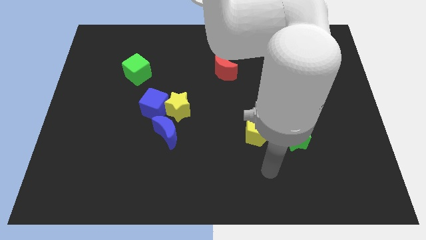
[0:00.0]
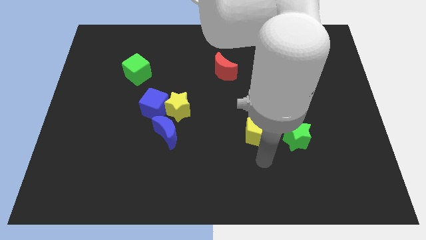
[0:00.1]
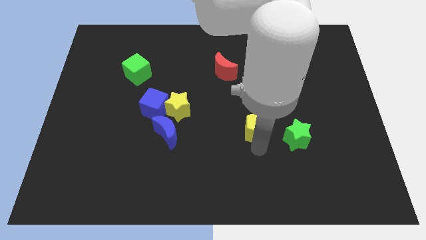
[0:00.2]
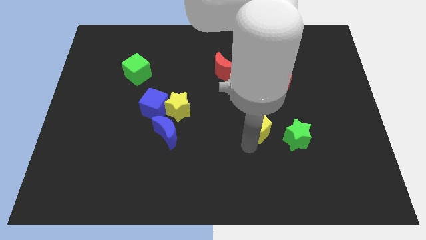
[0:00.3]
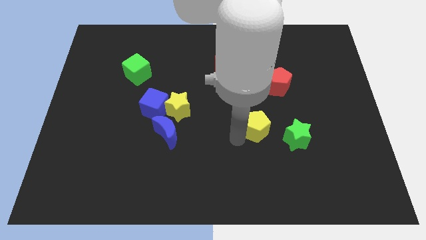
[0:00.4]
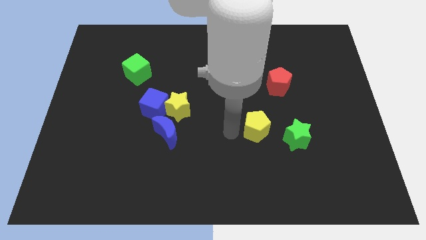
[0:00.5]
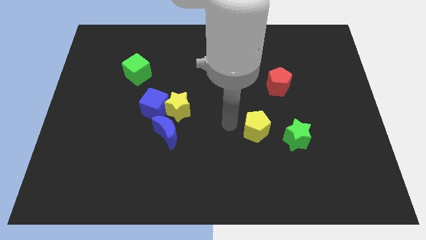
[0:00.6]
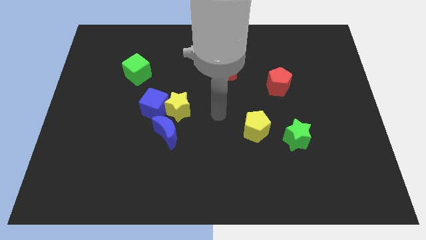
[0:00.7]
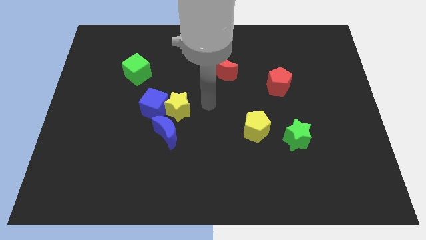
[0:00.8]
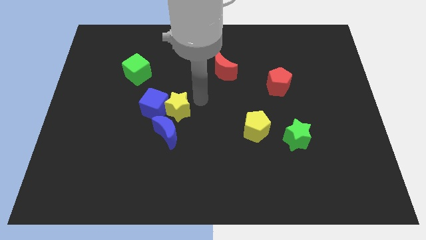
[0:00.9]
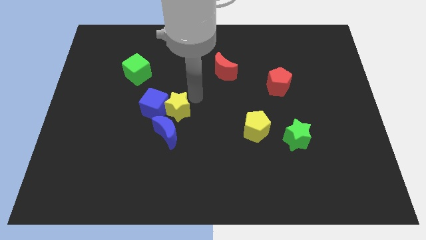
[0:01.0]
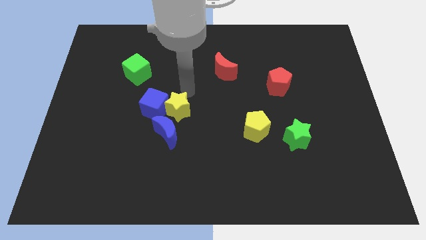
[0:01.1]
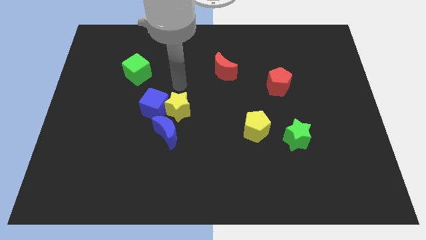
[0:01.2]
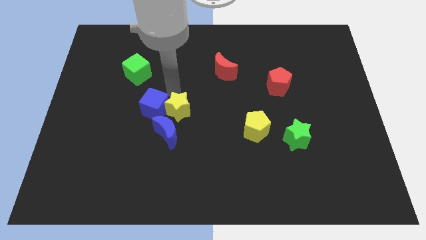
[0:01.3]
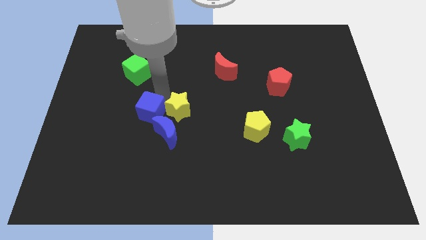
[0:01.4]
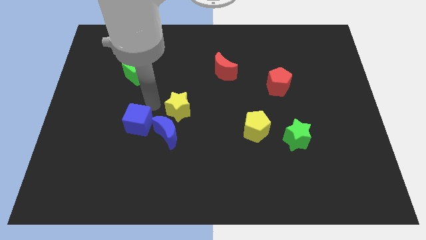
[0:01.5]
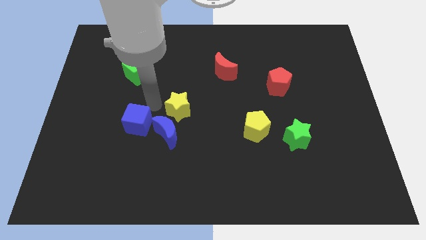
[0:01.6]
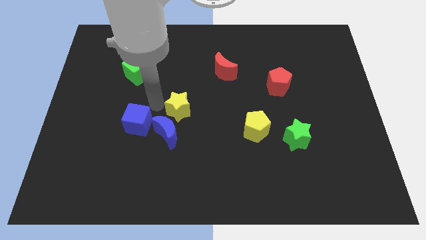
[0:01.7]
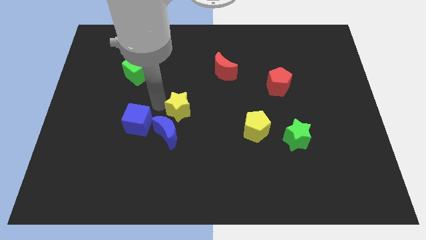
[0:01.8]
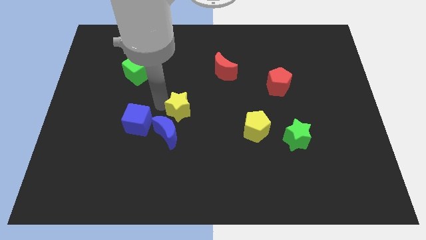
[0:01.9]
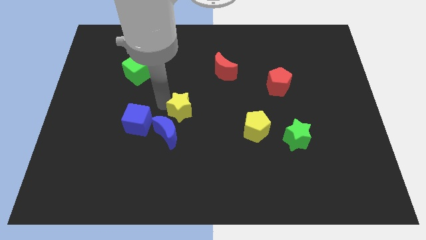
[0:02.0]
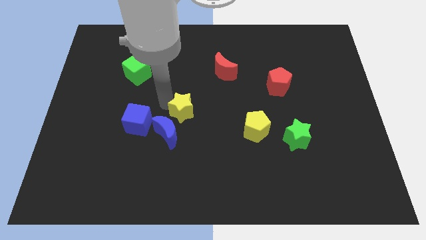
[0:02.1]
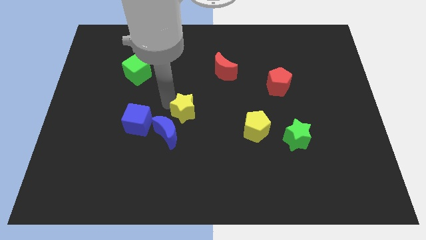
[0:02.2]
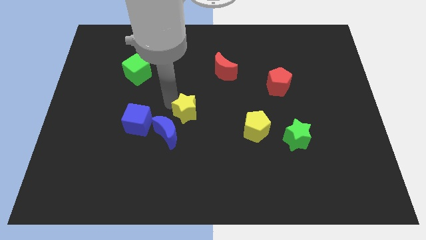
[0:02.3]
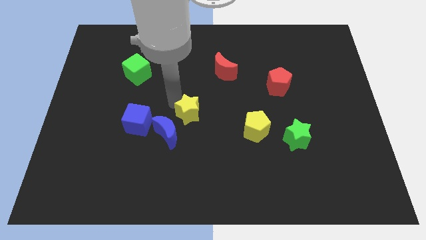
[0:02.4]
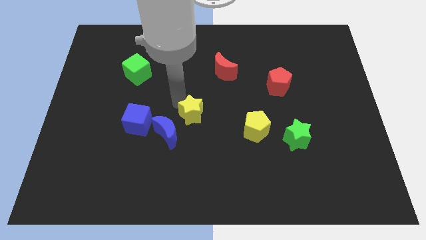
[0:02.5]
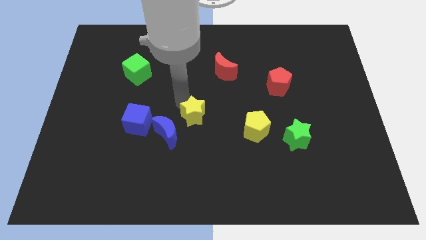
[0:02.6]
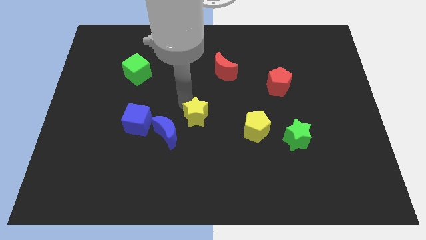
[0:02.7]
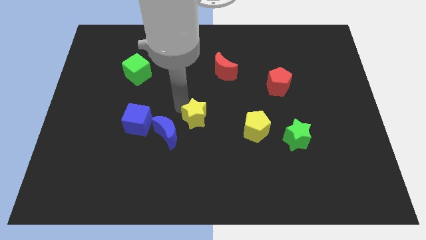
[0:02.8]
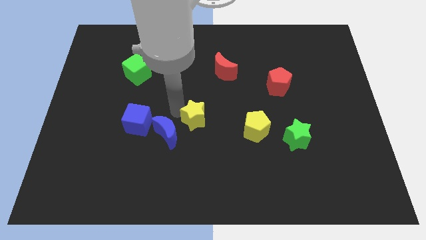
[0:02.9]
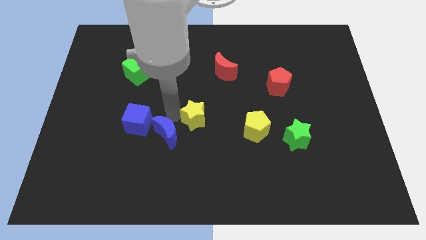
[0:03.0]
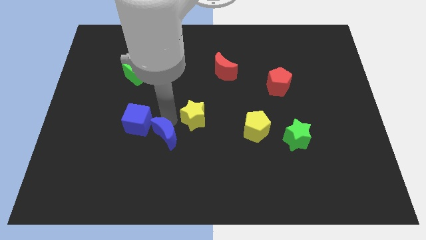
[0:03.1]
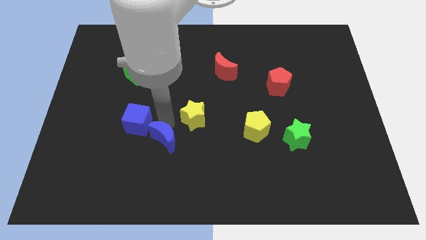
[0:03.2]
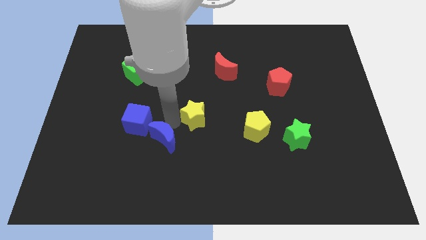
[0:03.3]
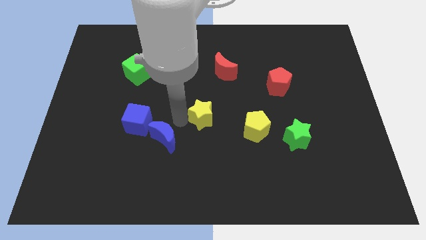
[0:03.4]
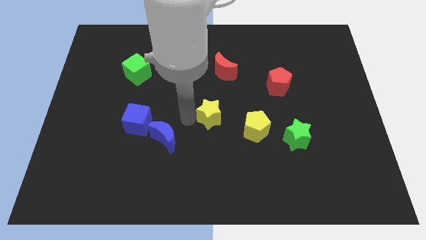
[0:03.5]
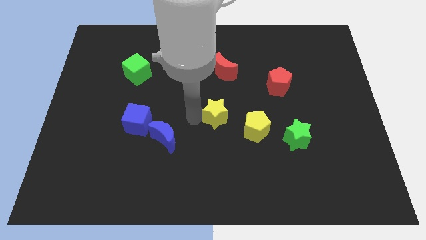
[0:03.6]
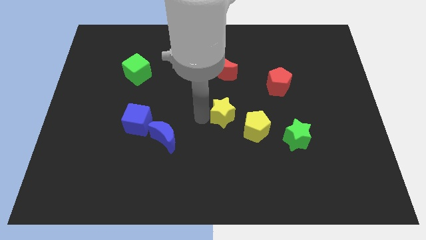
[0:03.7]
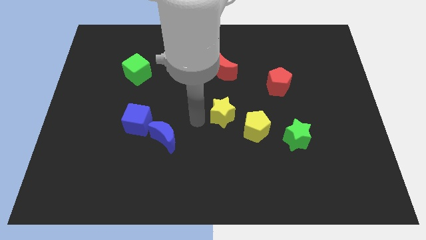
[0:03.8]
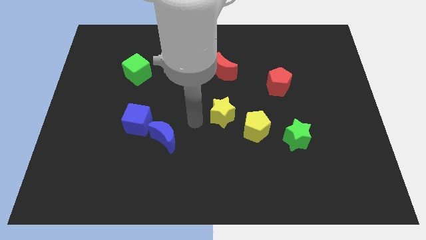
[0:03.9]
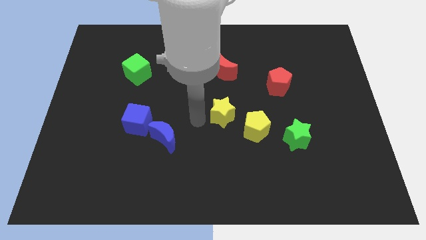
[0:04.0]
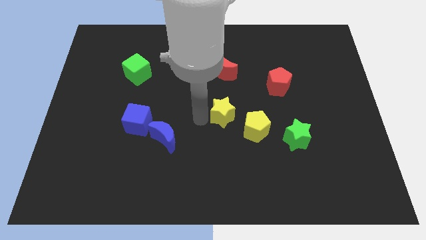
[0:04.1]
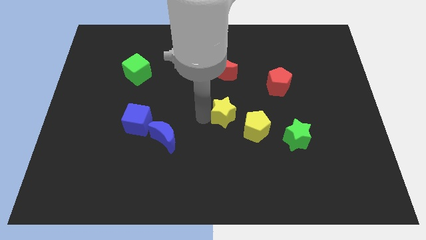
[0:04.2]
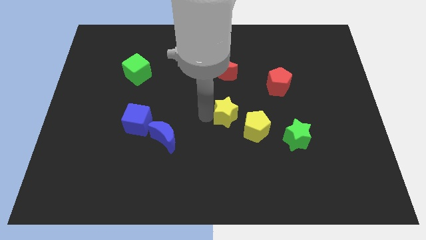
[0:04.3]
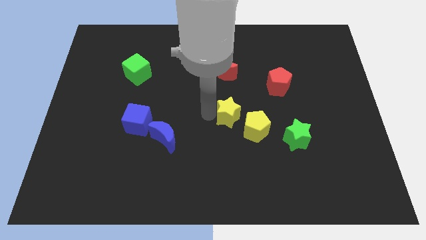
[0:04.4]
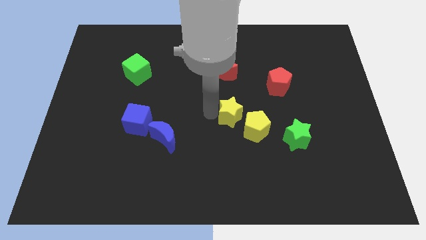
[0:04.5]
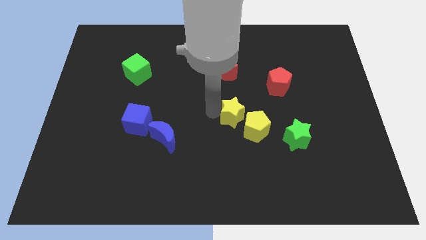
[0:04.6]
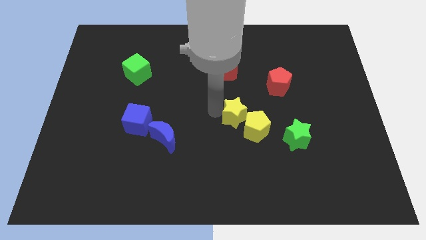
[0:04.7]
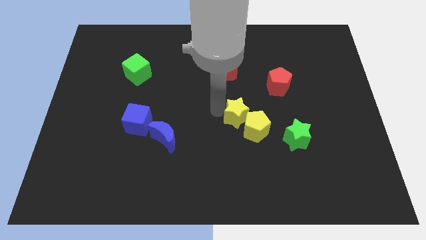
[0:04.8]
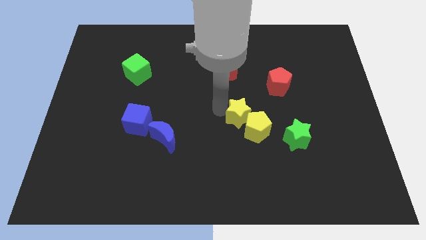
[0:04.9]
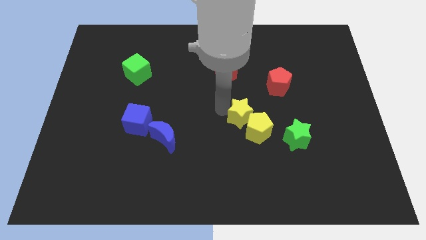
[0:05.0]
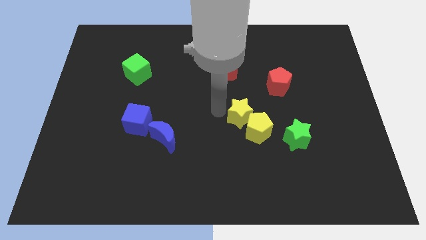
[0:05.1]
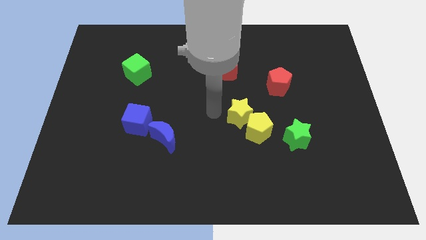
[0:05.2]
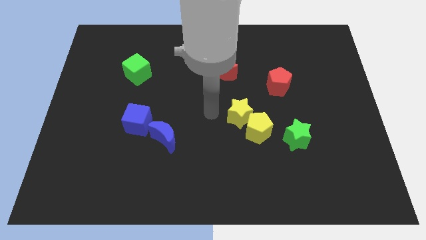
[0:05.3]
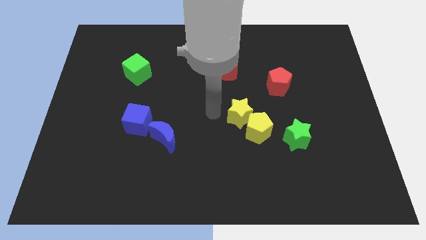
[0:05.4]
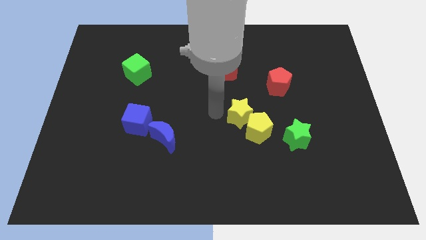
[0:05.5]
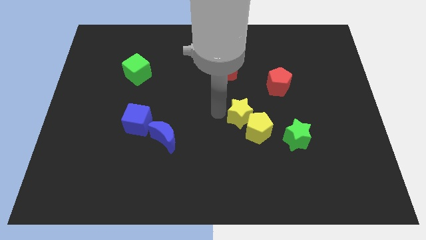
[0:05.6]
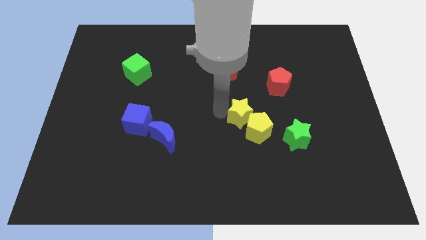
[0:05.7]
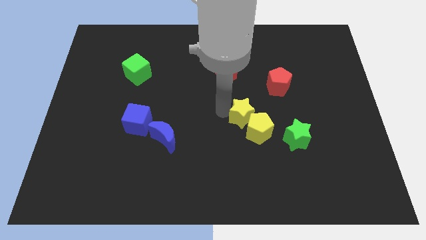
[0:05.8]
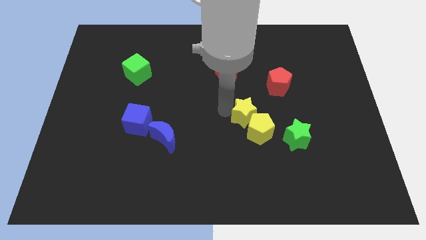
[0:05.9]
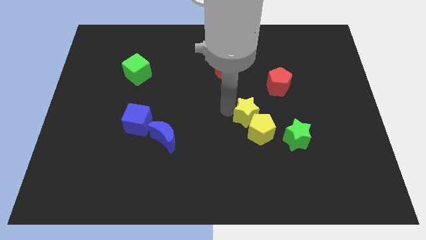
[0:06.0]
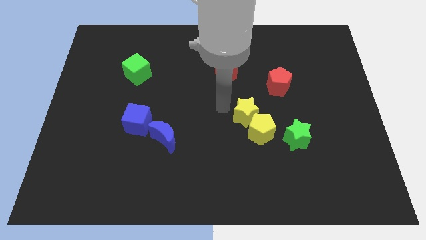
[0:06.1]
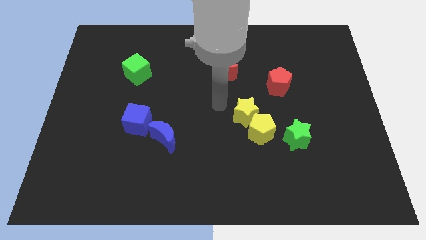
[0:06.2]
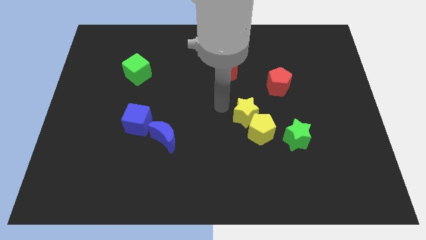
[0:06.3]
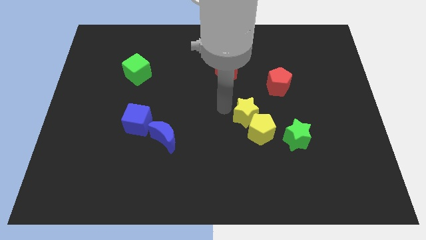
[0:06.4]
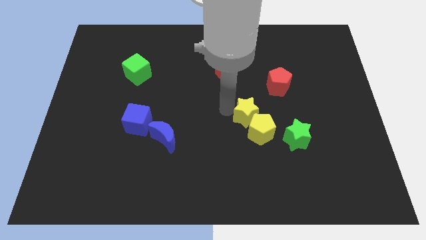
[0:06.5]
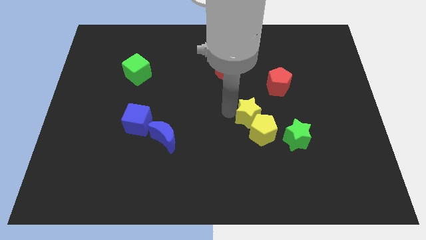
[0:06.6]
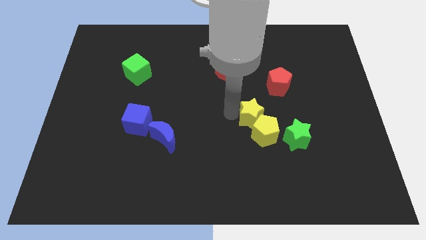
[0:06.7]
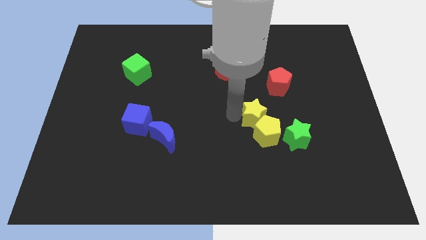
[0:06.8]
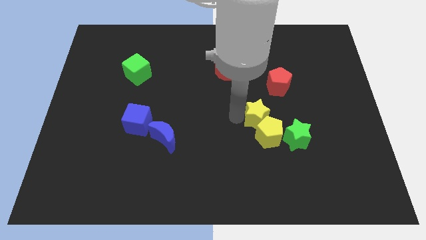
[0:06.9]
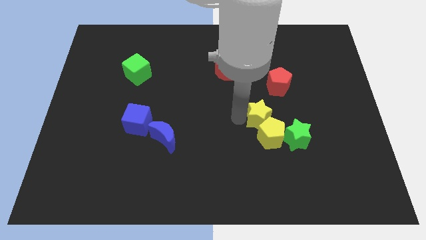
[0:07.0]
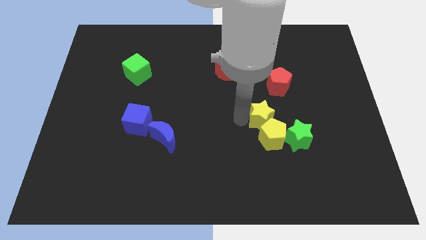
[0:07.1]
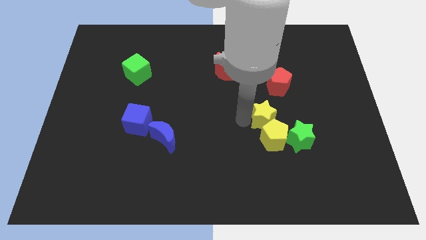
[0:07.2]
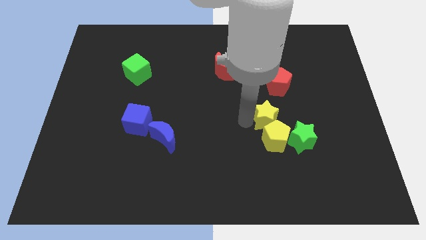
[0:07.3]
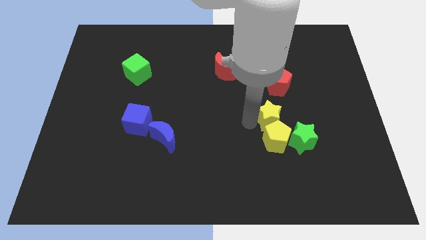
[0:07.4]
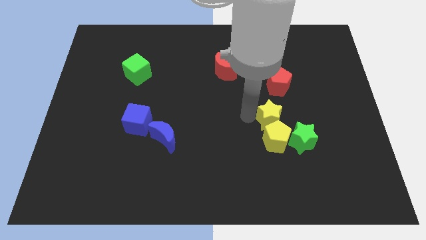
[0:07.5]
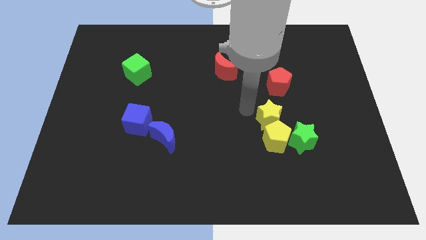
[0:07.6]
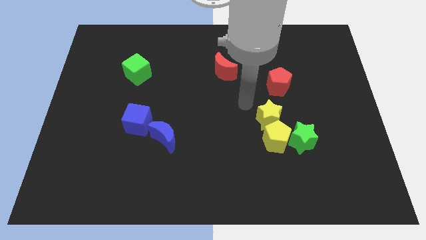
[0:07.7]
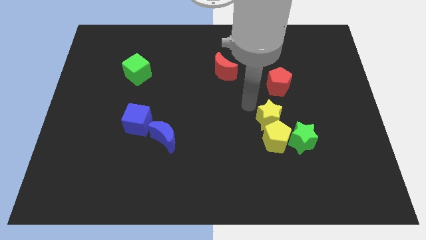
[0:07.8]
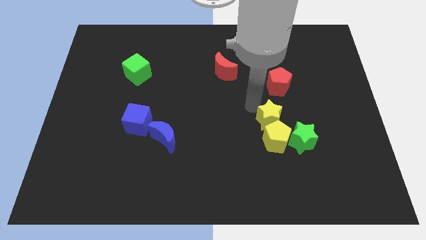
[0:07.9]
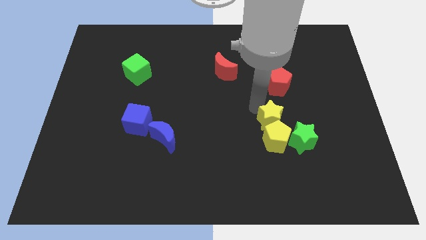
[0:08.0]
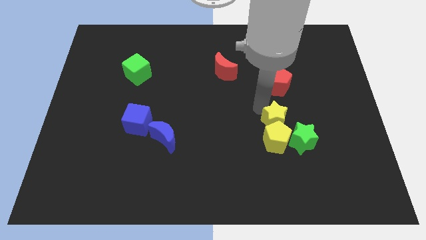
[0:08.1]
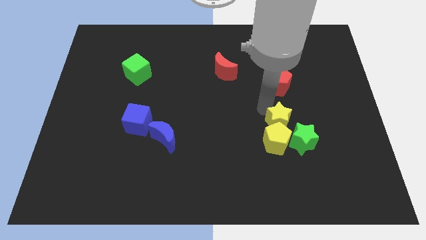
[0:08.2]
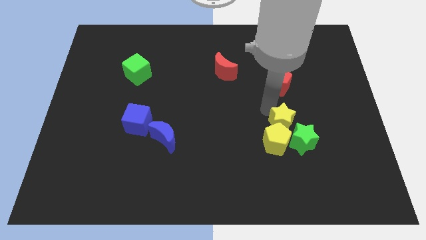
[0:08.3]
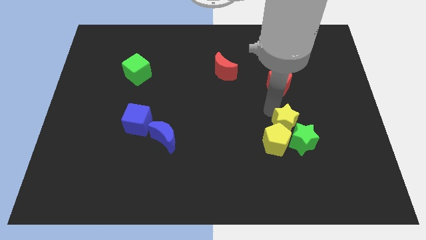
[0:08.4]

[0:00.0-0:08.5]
slide the yellow star next to the green star

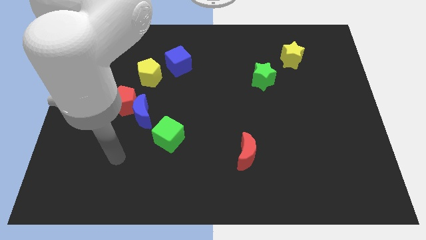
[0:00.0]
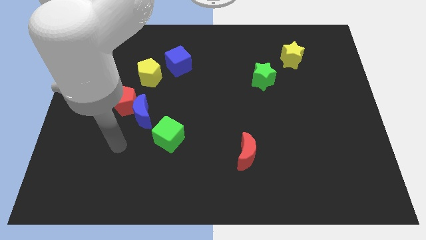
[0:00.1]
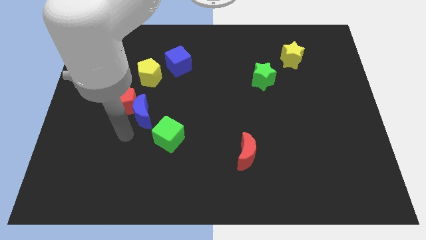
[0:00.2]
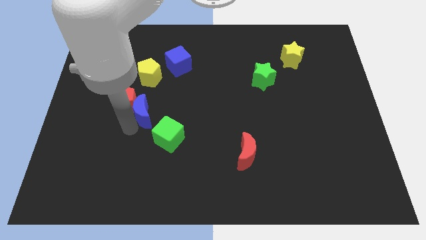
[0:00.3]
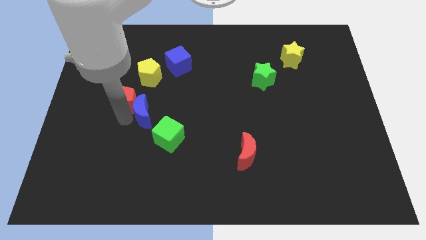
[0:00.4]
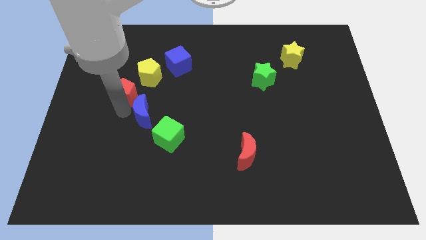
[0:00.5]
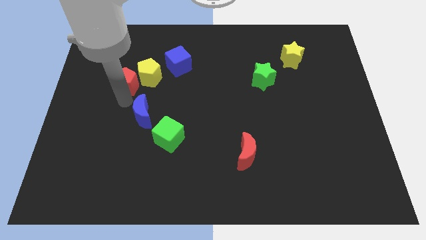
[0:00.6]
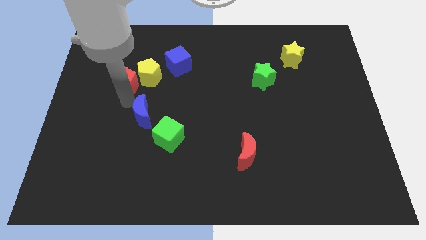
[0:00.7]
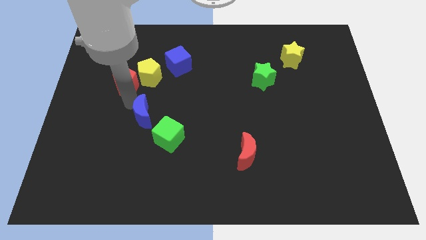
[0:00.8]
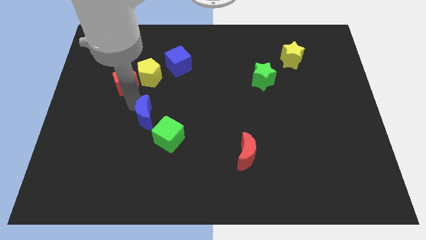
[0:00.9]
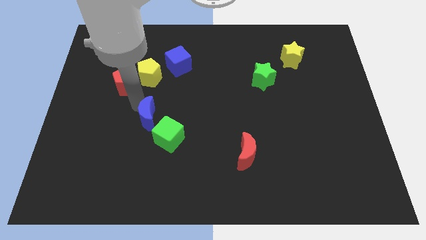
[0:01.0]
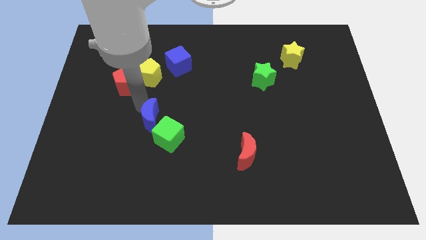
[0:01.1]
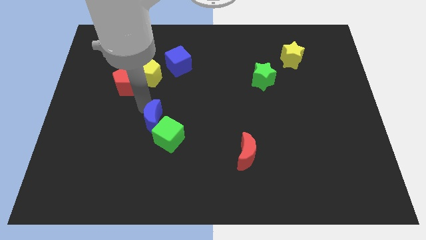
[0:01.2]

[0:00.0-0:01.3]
put the blue moon close to the green cube
